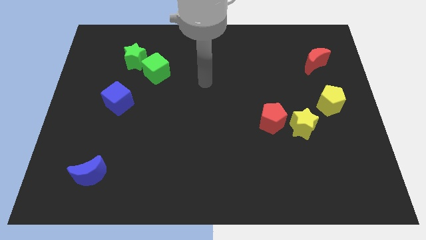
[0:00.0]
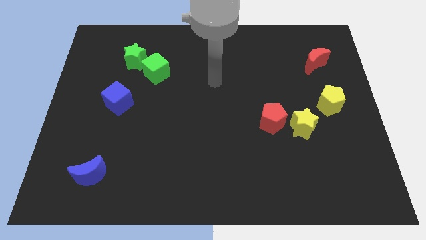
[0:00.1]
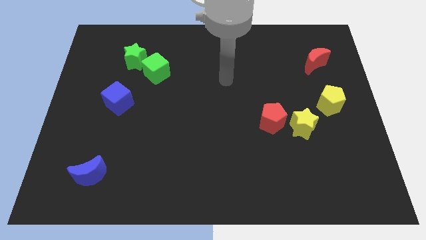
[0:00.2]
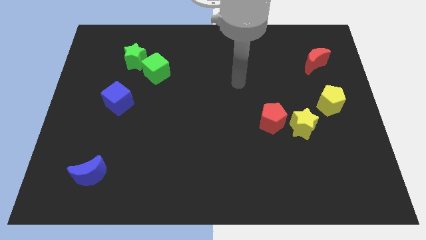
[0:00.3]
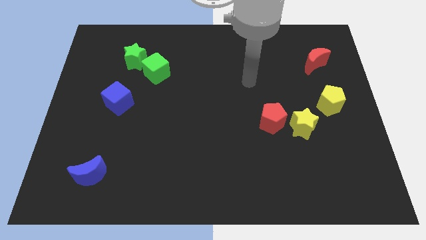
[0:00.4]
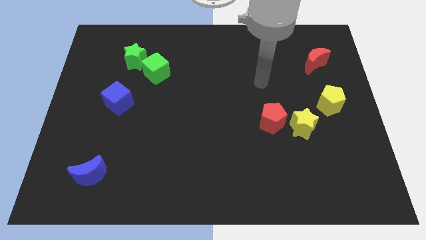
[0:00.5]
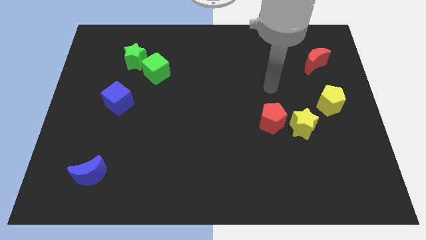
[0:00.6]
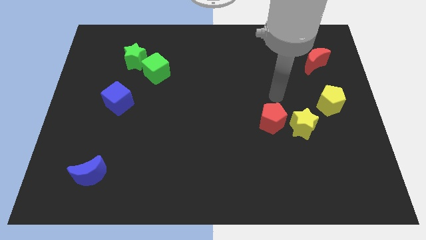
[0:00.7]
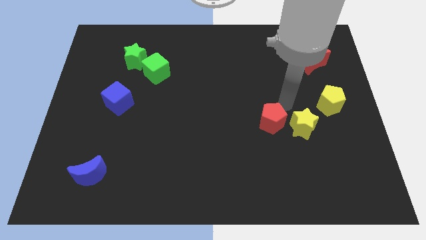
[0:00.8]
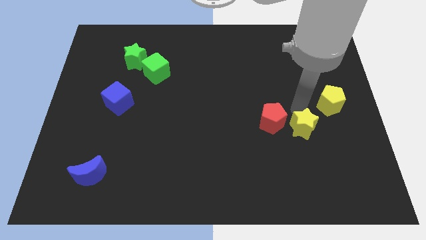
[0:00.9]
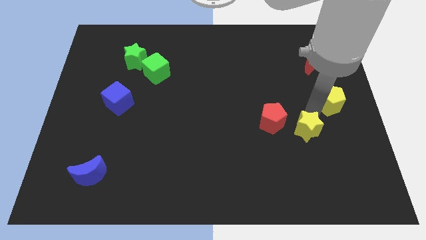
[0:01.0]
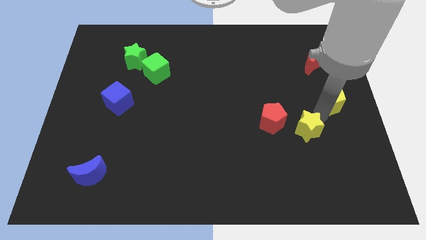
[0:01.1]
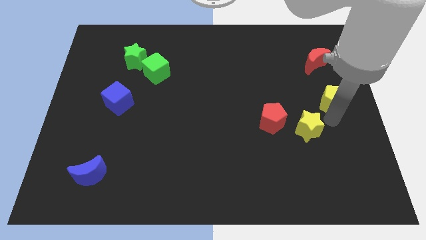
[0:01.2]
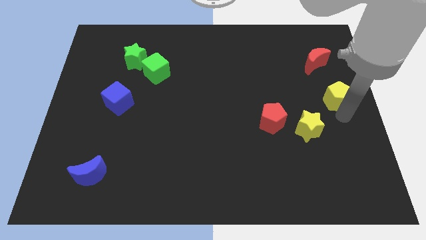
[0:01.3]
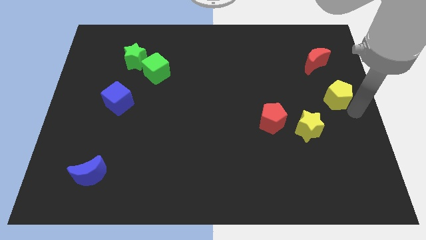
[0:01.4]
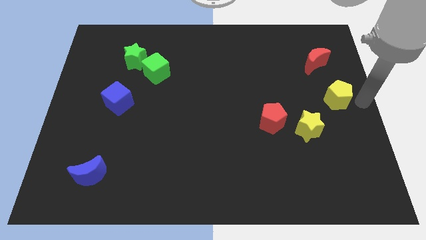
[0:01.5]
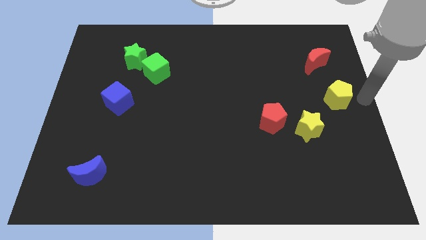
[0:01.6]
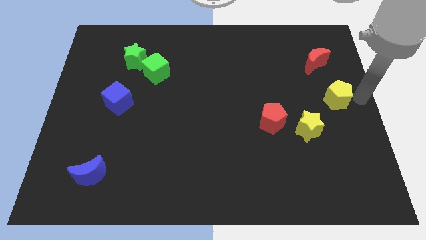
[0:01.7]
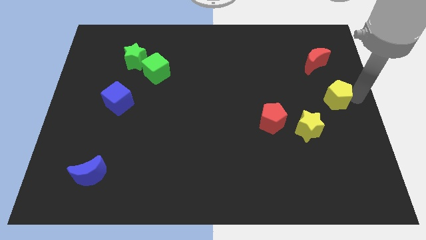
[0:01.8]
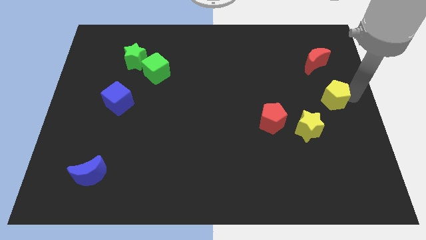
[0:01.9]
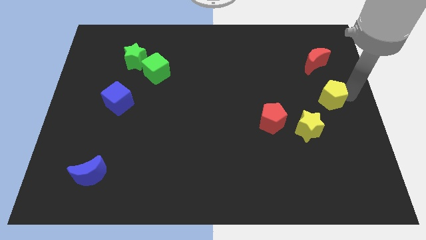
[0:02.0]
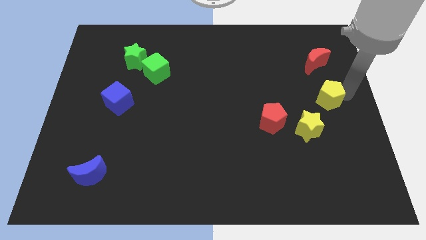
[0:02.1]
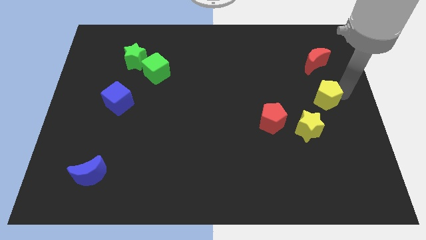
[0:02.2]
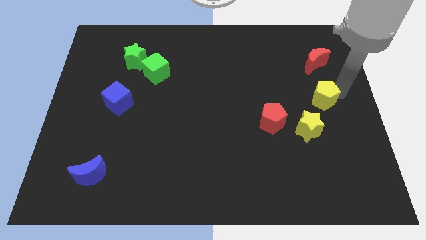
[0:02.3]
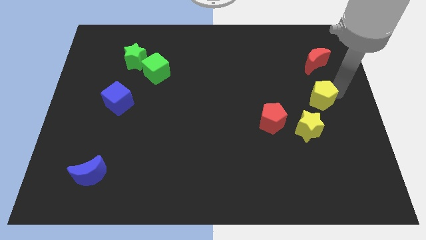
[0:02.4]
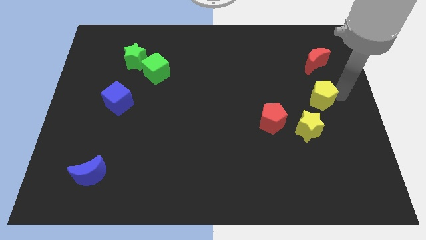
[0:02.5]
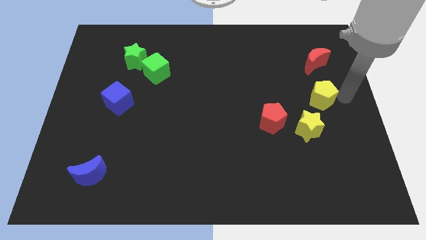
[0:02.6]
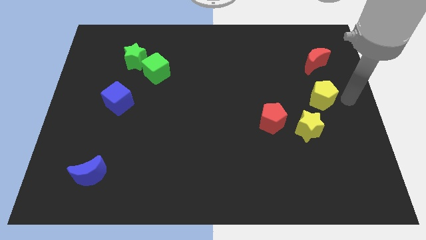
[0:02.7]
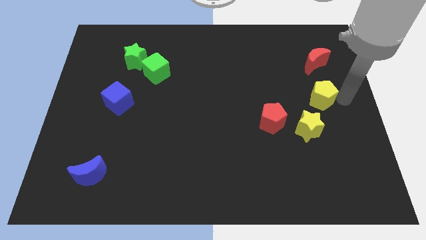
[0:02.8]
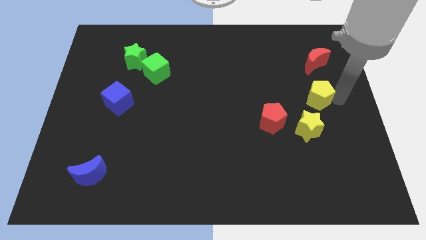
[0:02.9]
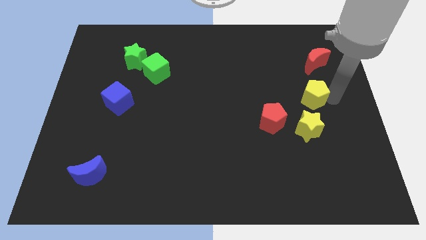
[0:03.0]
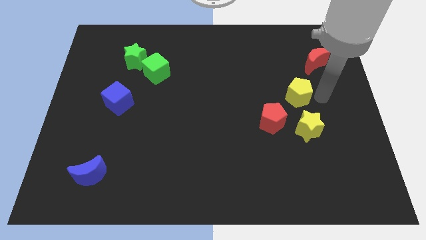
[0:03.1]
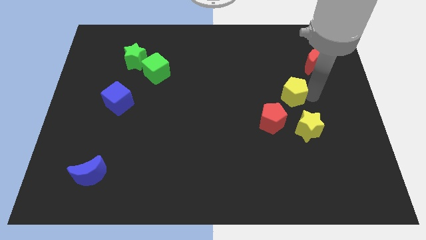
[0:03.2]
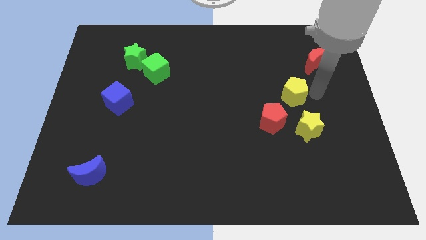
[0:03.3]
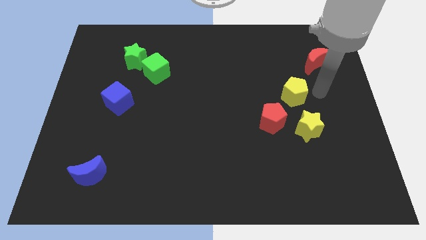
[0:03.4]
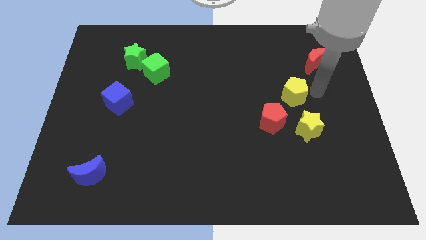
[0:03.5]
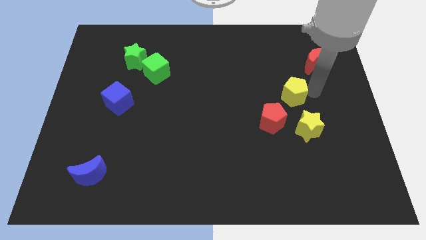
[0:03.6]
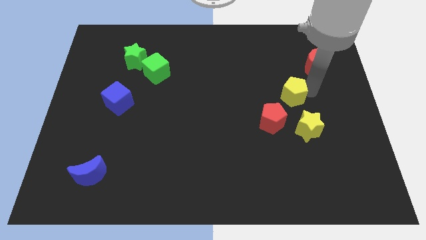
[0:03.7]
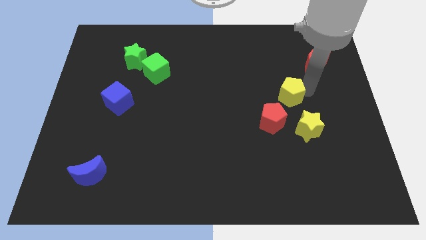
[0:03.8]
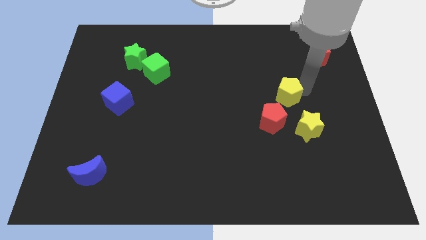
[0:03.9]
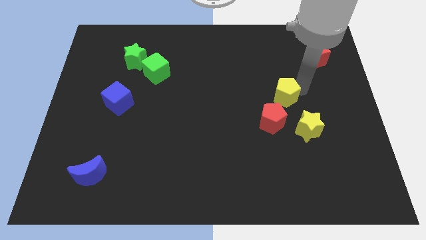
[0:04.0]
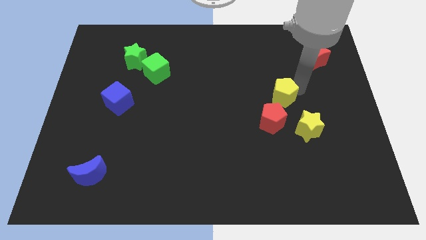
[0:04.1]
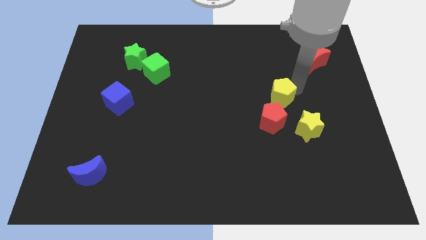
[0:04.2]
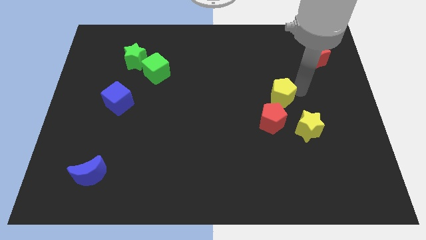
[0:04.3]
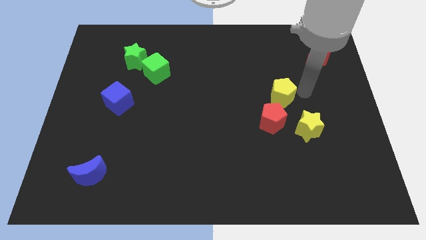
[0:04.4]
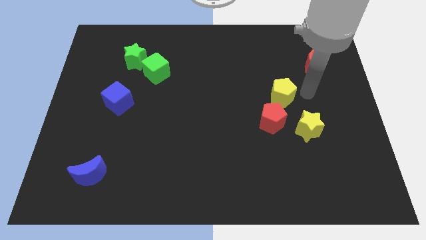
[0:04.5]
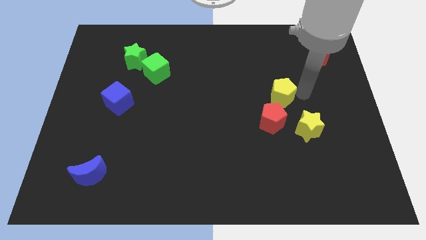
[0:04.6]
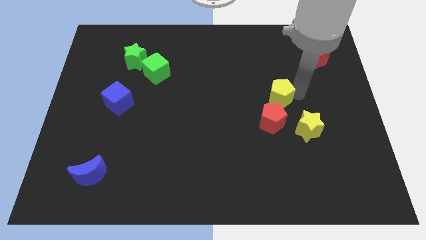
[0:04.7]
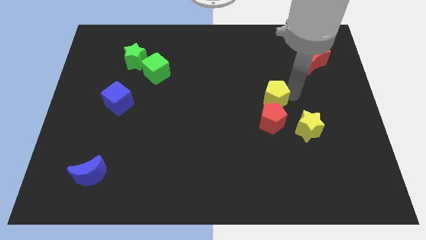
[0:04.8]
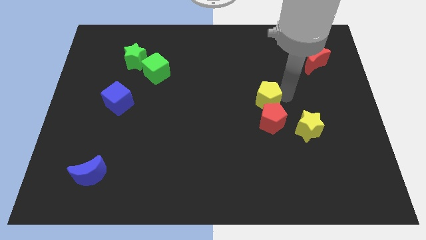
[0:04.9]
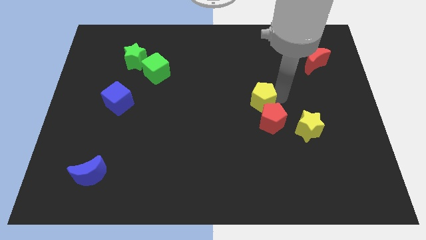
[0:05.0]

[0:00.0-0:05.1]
put the yellow pentagon to the center
